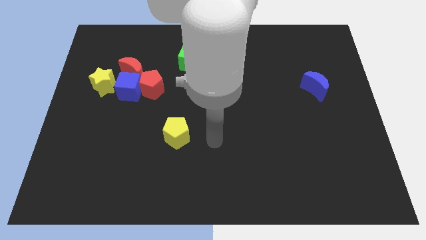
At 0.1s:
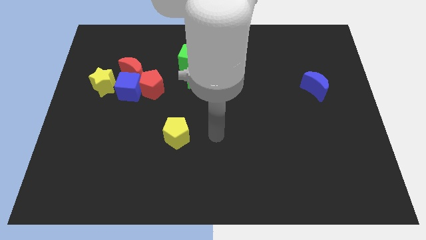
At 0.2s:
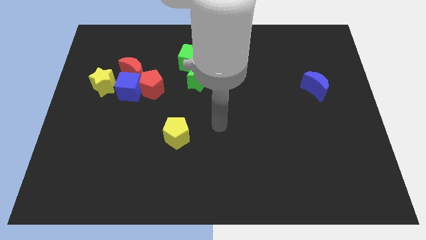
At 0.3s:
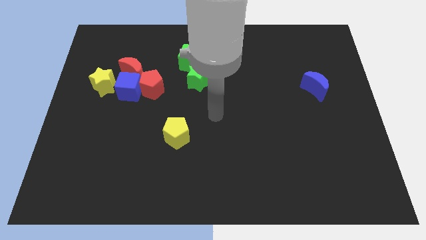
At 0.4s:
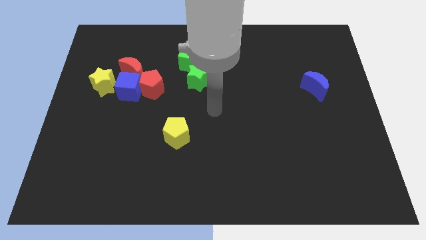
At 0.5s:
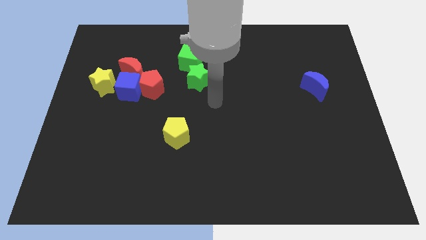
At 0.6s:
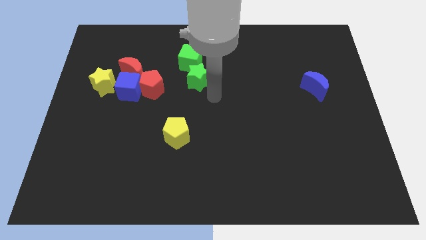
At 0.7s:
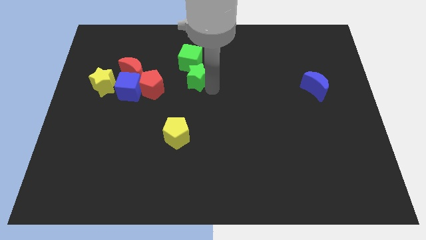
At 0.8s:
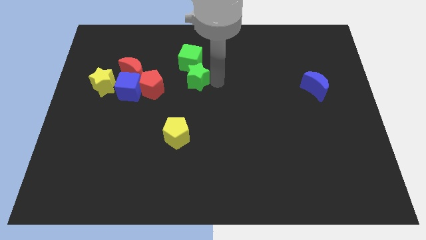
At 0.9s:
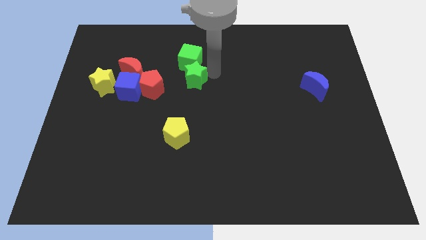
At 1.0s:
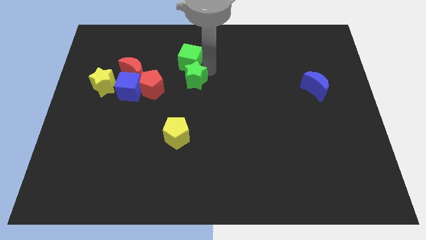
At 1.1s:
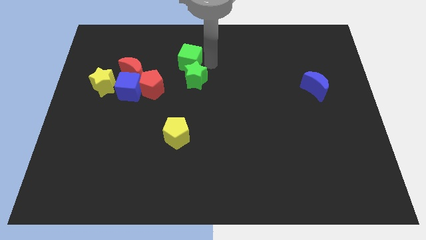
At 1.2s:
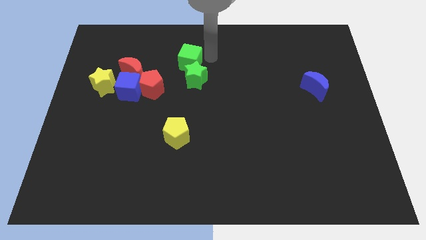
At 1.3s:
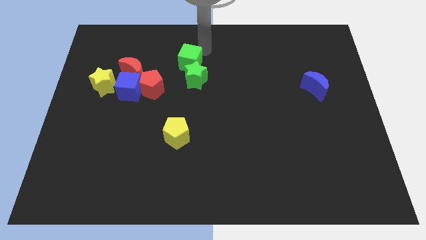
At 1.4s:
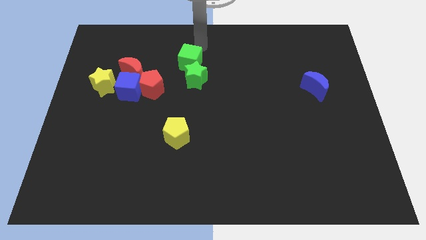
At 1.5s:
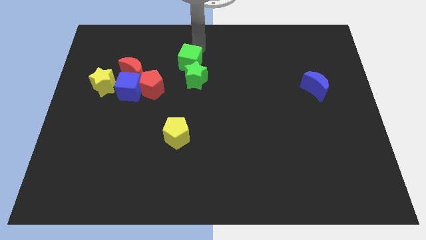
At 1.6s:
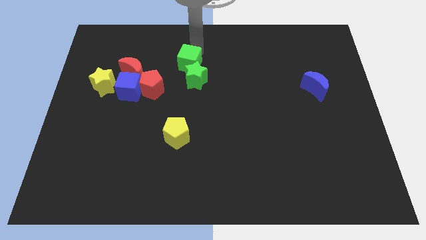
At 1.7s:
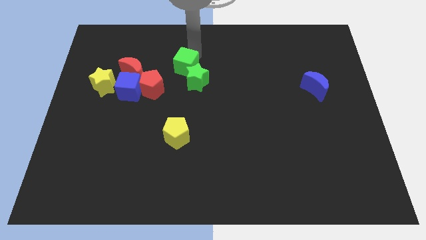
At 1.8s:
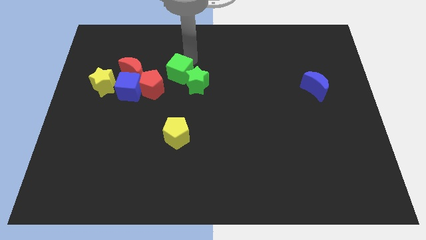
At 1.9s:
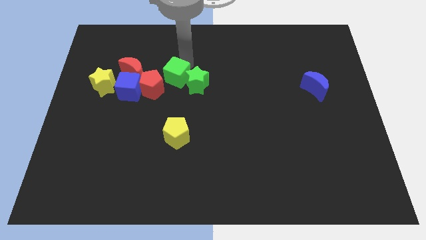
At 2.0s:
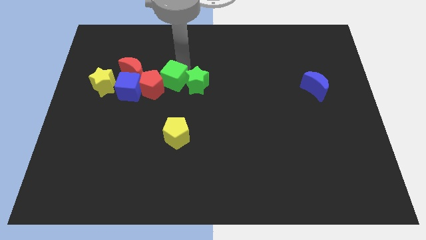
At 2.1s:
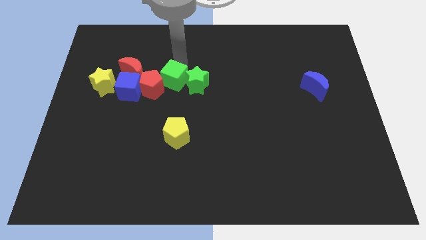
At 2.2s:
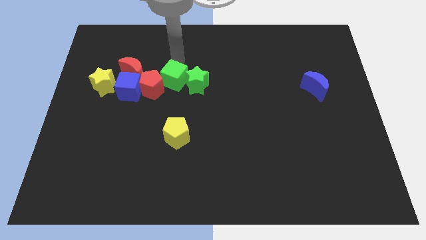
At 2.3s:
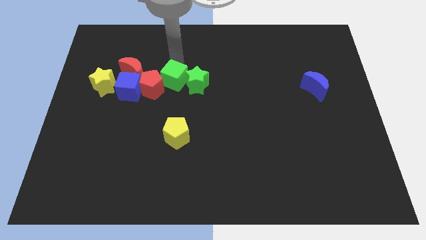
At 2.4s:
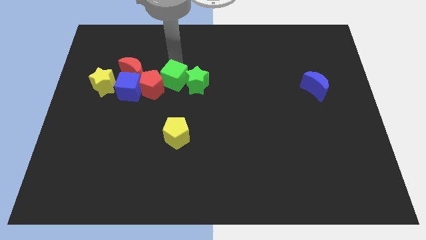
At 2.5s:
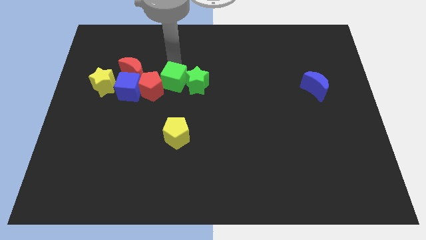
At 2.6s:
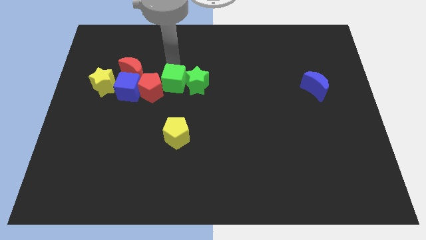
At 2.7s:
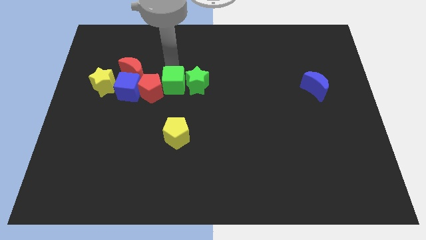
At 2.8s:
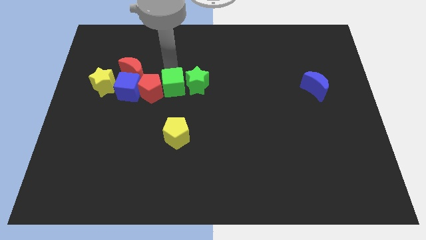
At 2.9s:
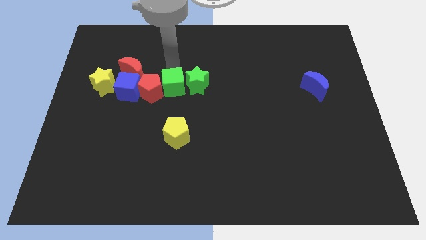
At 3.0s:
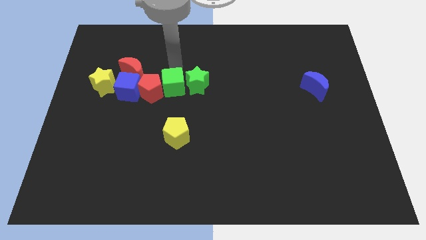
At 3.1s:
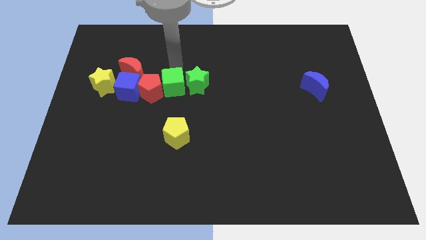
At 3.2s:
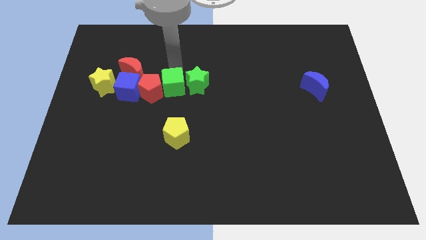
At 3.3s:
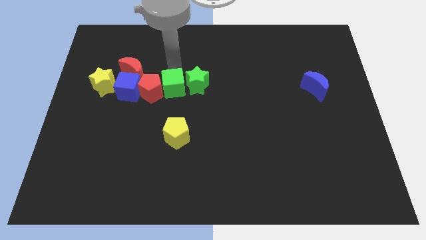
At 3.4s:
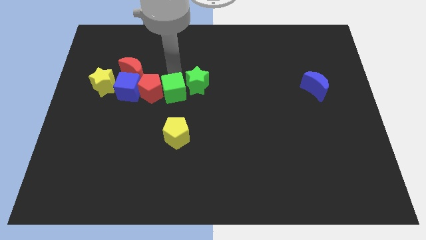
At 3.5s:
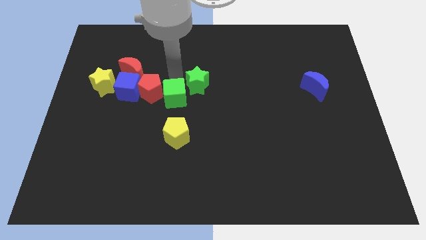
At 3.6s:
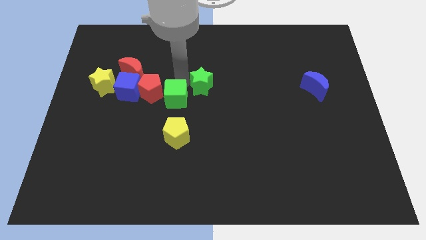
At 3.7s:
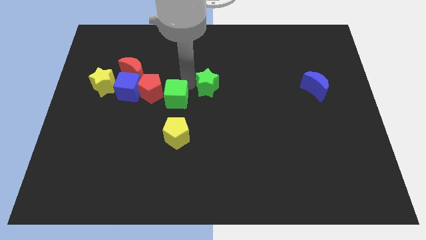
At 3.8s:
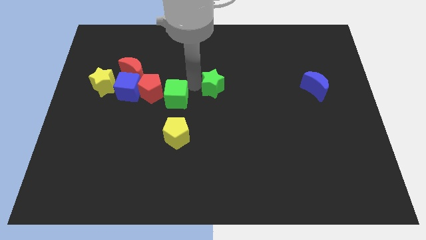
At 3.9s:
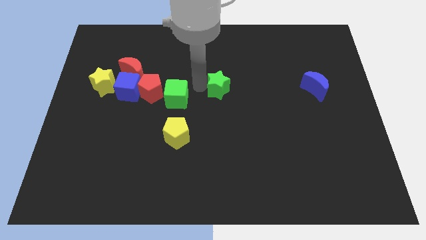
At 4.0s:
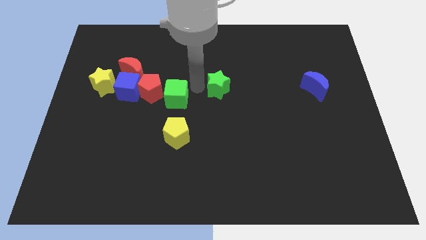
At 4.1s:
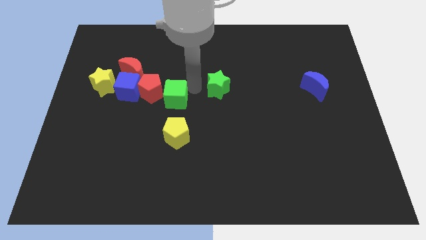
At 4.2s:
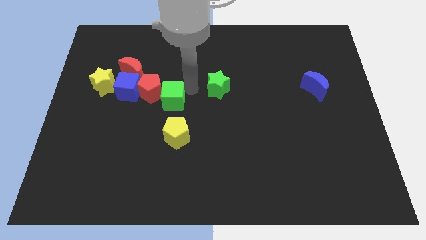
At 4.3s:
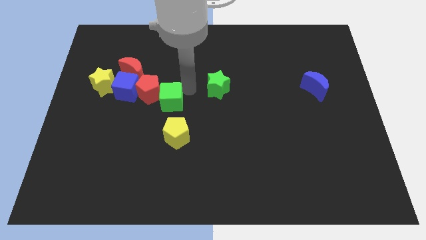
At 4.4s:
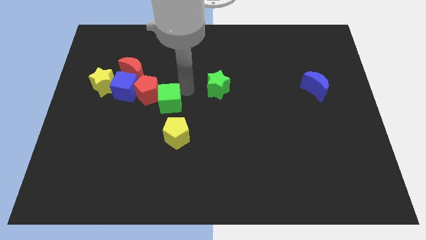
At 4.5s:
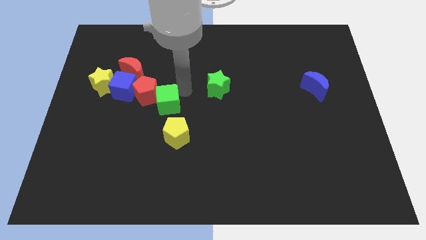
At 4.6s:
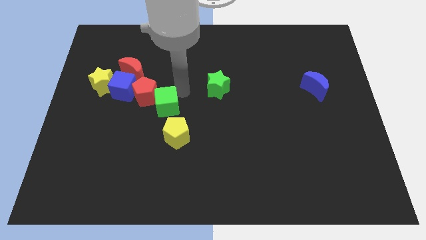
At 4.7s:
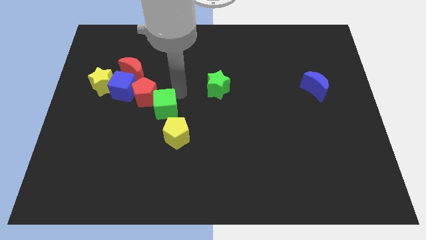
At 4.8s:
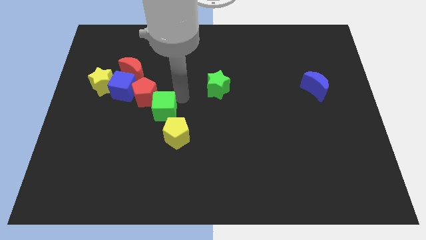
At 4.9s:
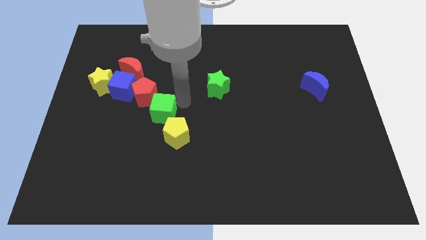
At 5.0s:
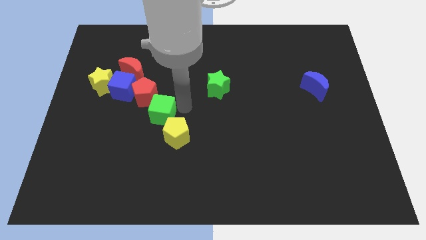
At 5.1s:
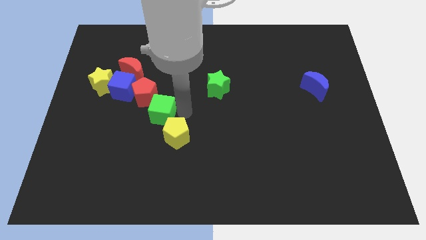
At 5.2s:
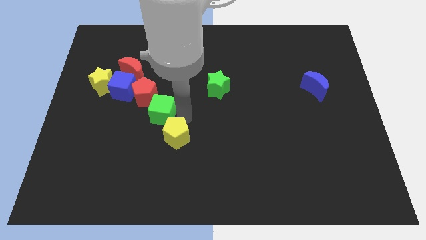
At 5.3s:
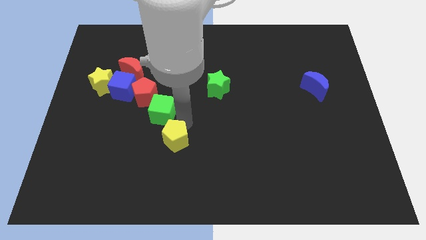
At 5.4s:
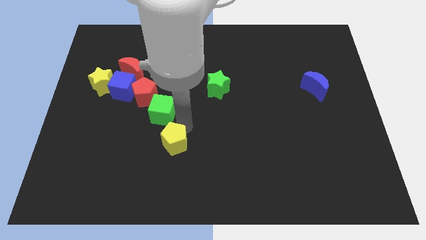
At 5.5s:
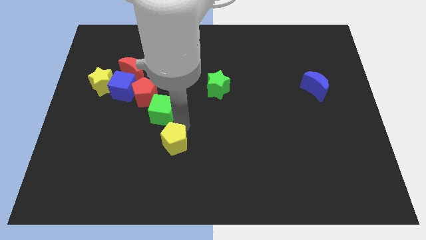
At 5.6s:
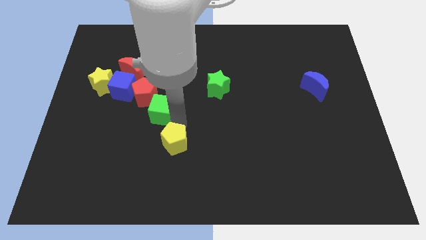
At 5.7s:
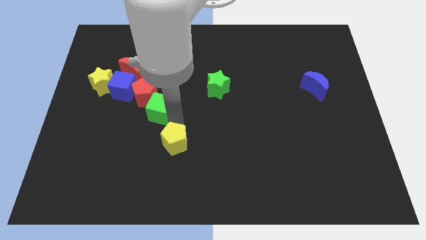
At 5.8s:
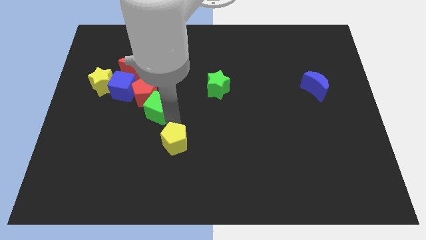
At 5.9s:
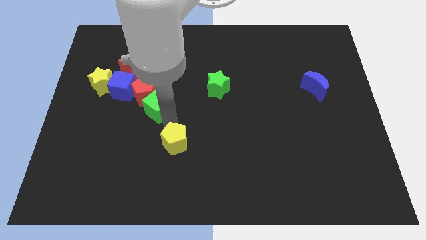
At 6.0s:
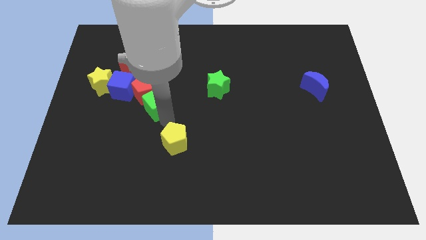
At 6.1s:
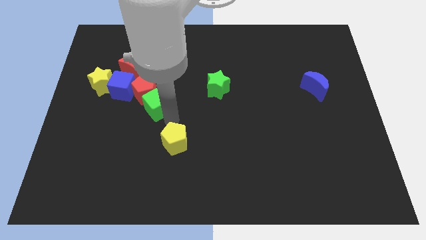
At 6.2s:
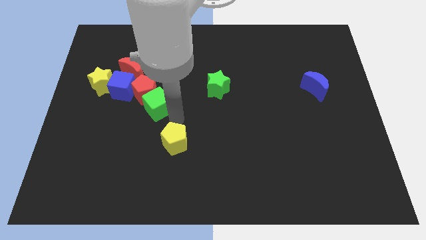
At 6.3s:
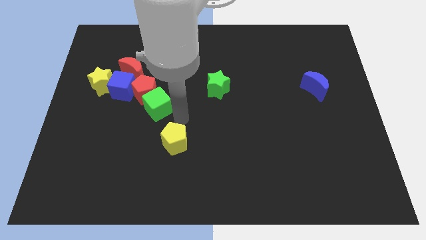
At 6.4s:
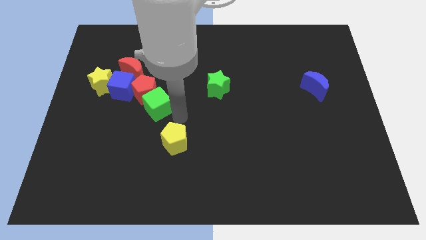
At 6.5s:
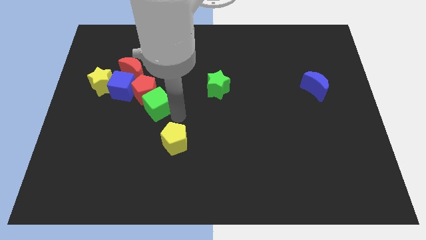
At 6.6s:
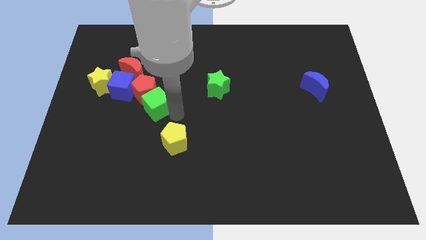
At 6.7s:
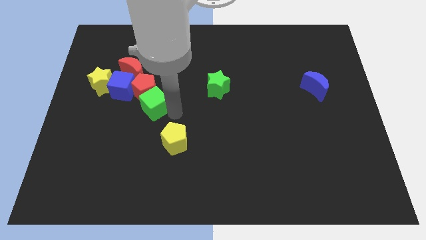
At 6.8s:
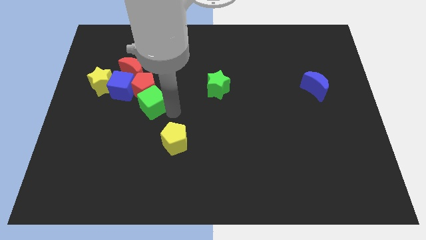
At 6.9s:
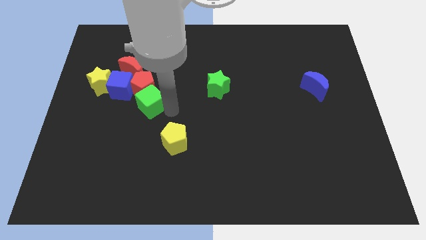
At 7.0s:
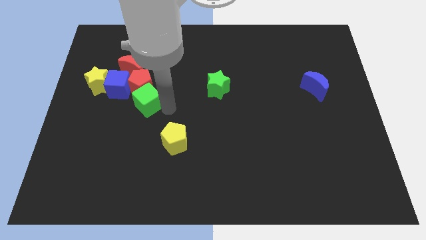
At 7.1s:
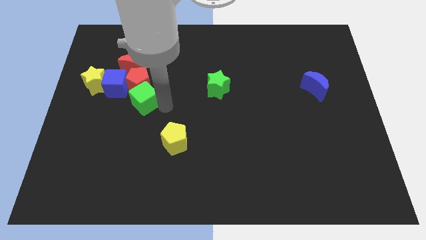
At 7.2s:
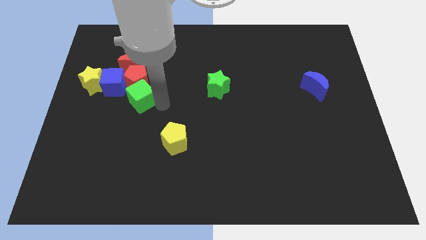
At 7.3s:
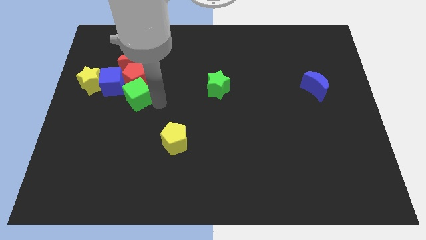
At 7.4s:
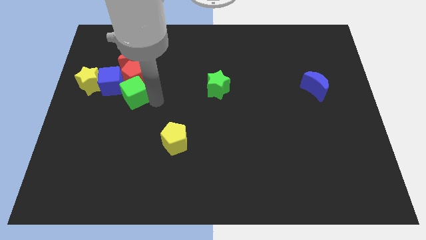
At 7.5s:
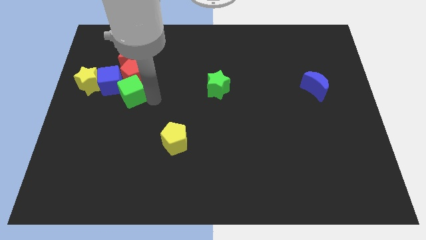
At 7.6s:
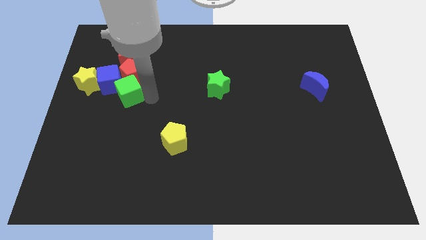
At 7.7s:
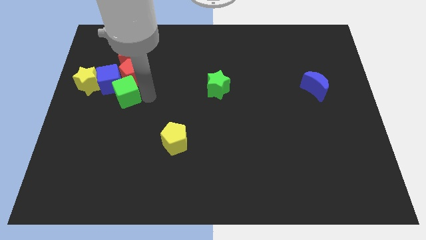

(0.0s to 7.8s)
slide the green cube towards the blue cube
